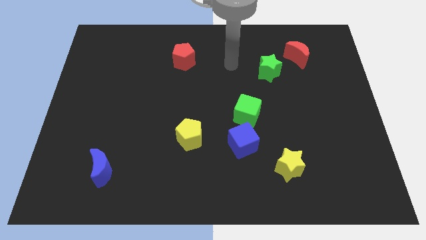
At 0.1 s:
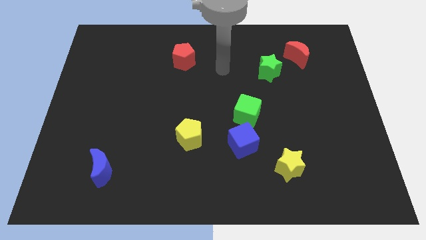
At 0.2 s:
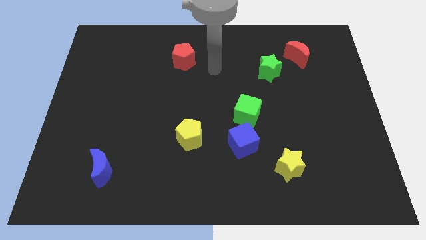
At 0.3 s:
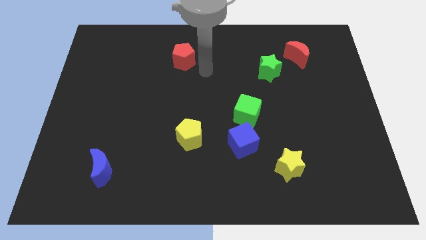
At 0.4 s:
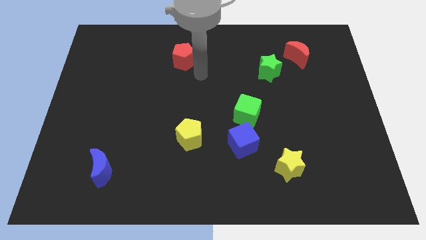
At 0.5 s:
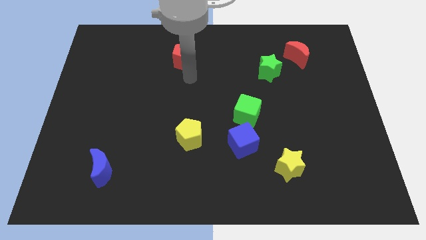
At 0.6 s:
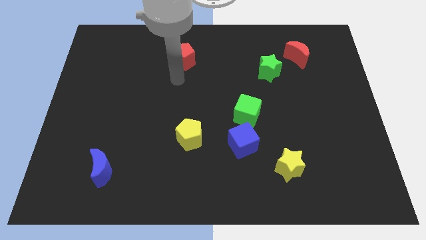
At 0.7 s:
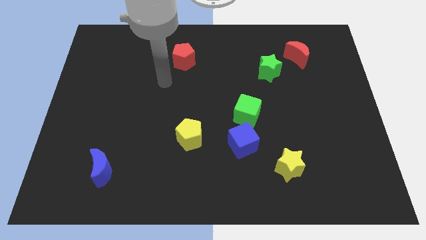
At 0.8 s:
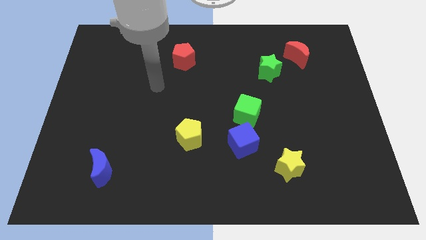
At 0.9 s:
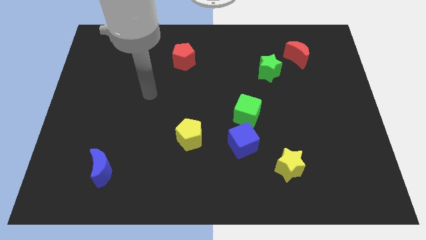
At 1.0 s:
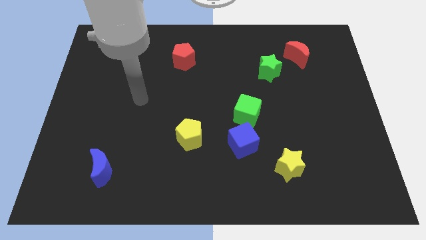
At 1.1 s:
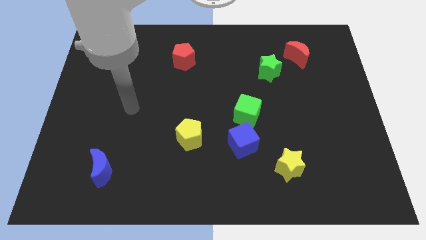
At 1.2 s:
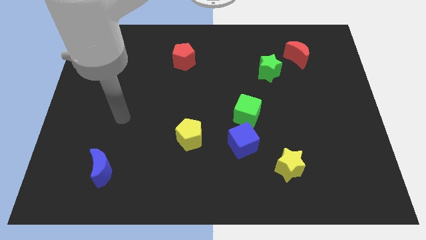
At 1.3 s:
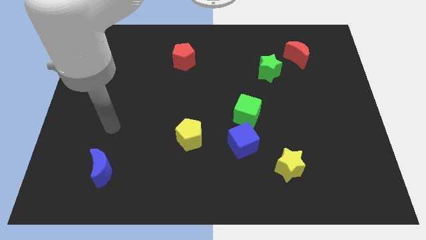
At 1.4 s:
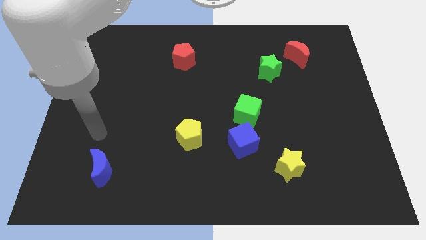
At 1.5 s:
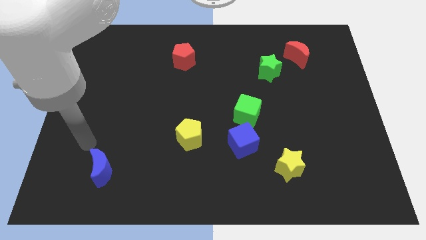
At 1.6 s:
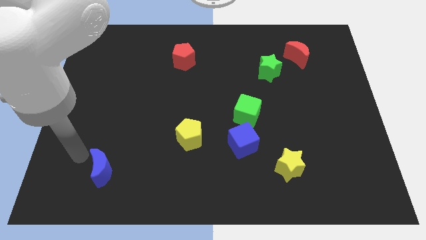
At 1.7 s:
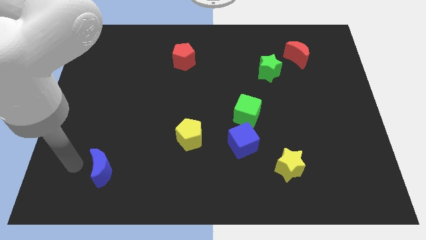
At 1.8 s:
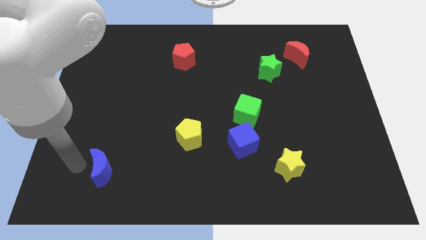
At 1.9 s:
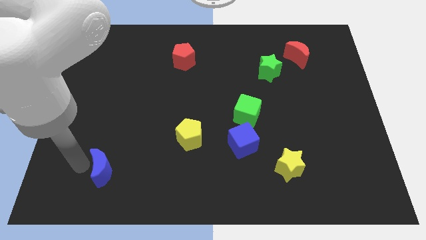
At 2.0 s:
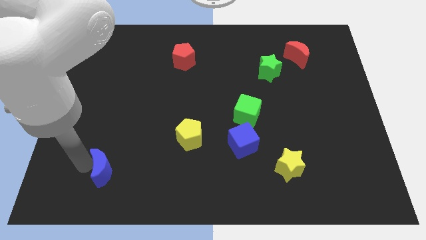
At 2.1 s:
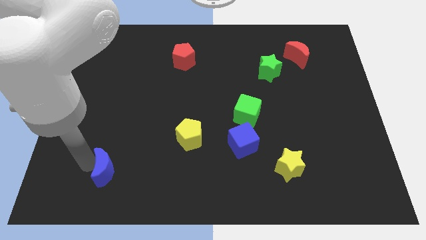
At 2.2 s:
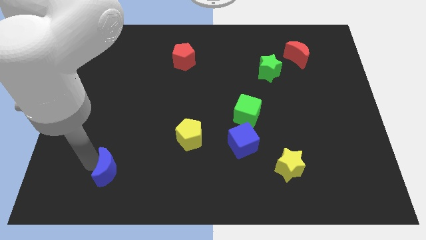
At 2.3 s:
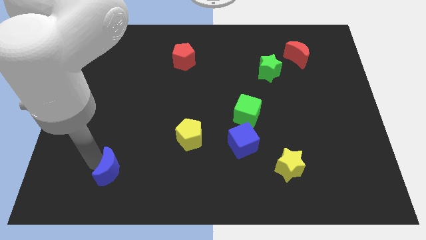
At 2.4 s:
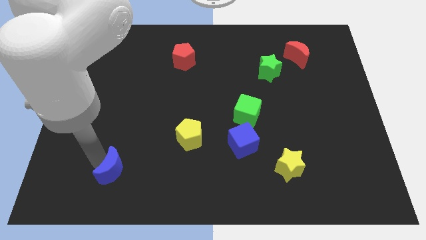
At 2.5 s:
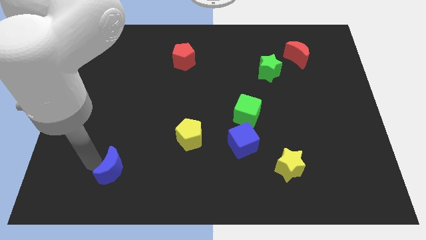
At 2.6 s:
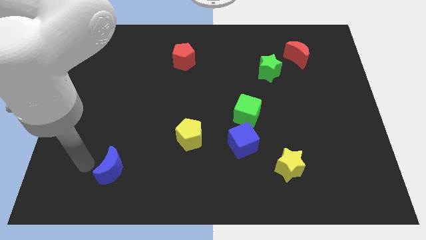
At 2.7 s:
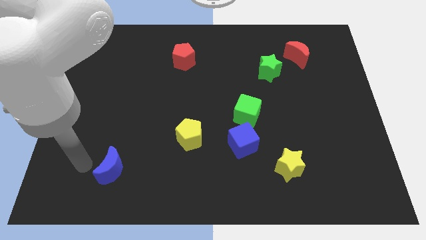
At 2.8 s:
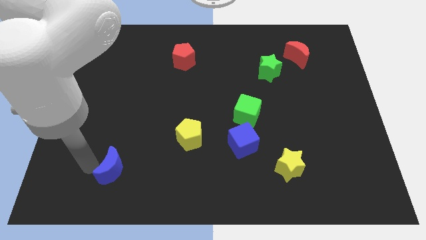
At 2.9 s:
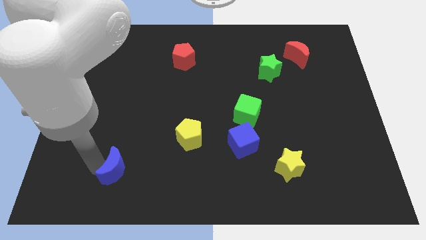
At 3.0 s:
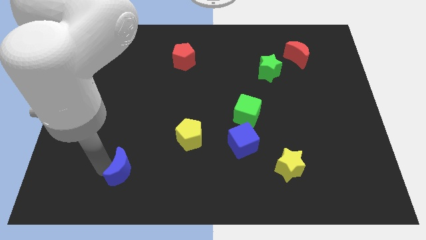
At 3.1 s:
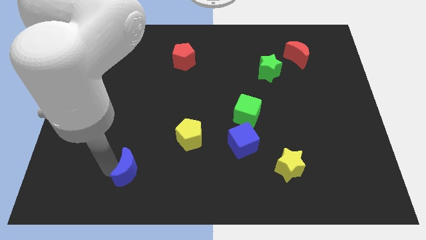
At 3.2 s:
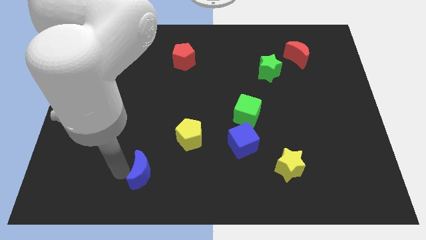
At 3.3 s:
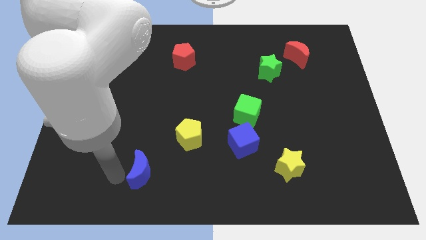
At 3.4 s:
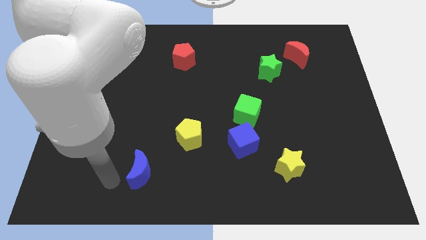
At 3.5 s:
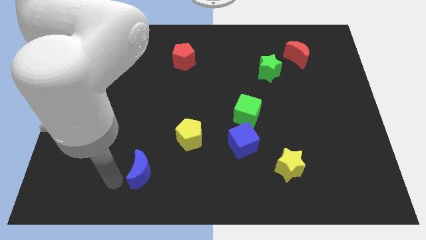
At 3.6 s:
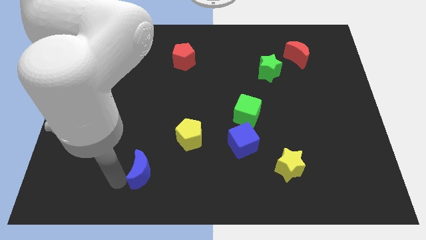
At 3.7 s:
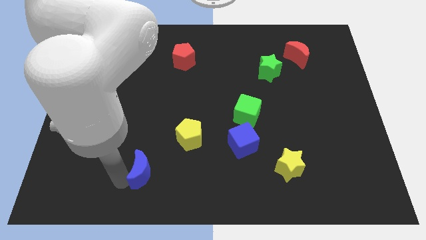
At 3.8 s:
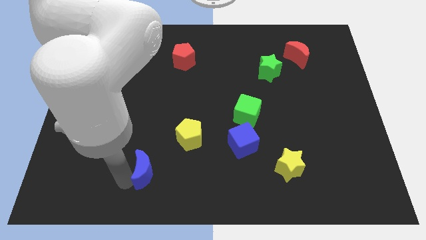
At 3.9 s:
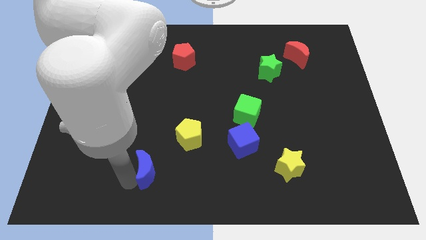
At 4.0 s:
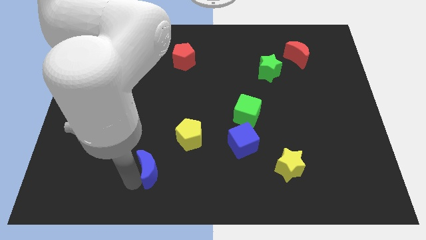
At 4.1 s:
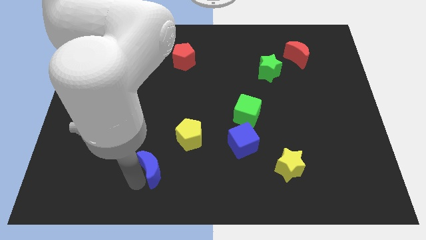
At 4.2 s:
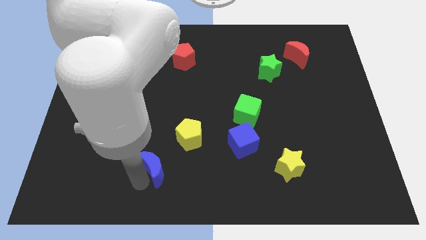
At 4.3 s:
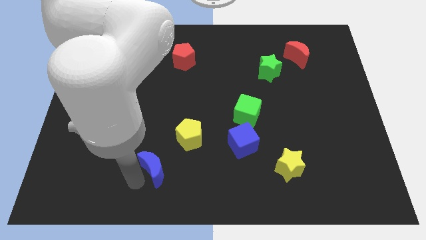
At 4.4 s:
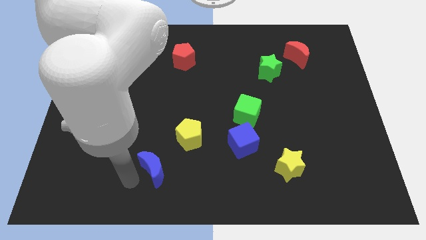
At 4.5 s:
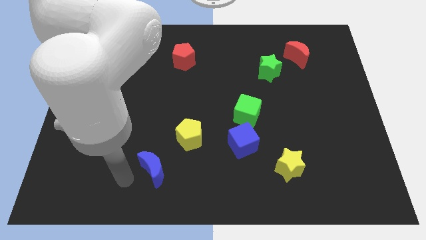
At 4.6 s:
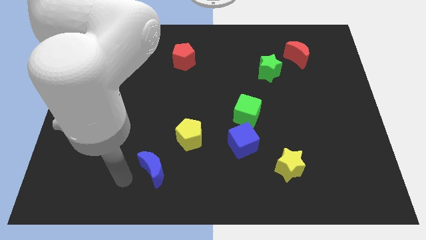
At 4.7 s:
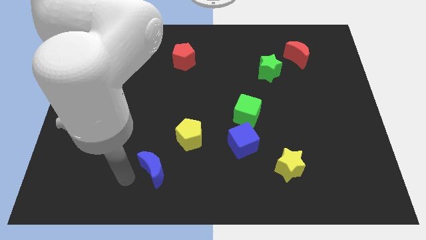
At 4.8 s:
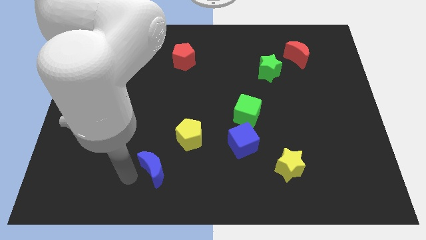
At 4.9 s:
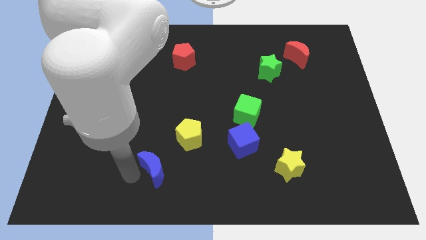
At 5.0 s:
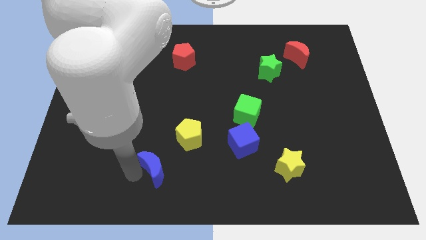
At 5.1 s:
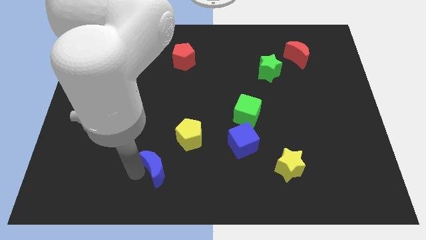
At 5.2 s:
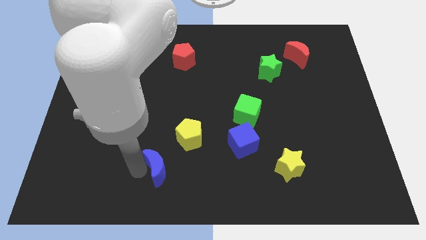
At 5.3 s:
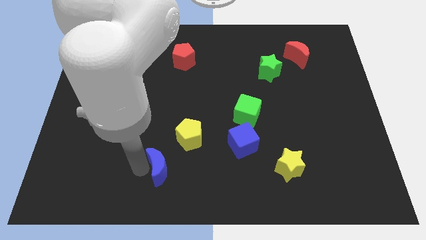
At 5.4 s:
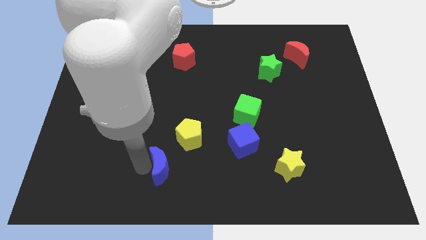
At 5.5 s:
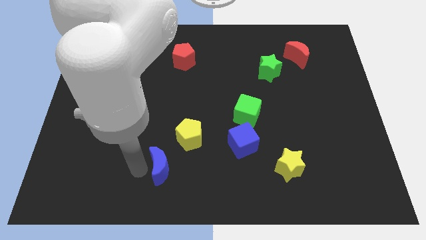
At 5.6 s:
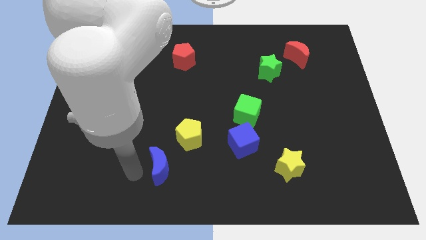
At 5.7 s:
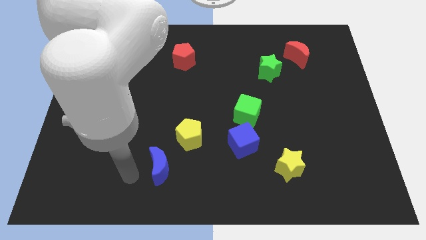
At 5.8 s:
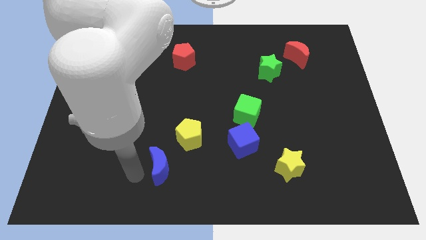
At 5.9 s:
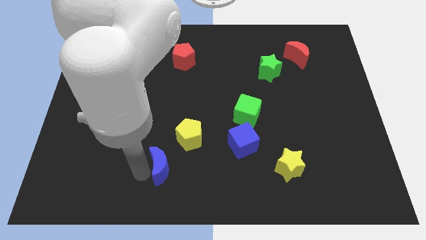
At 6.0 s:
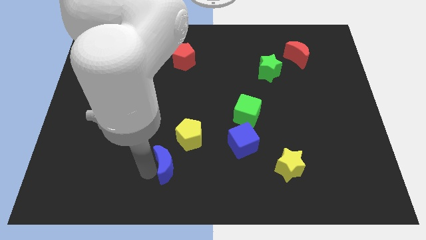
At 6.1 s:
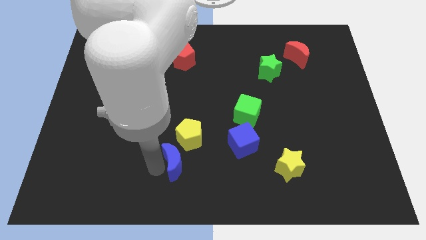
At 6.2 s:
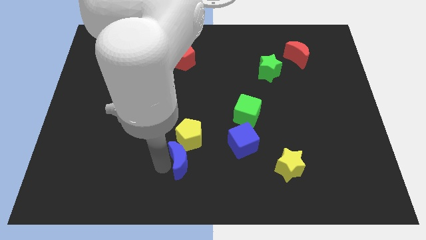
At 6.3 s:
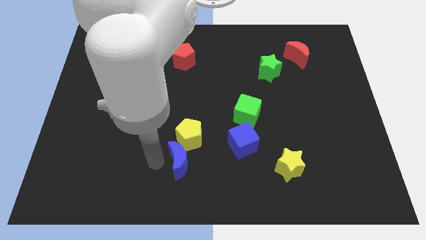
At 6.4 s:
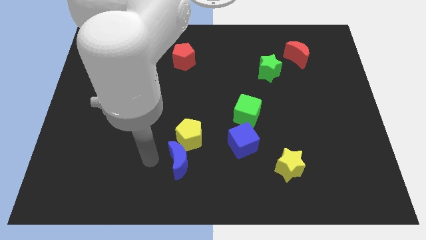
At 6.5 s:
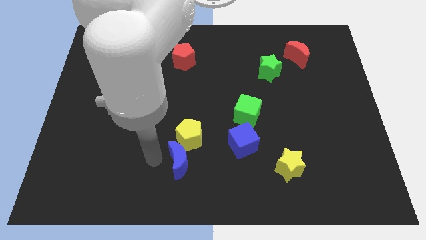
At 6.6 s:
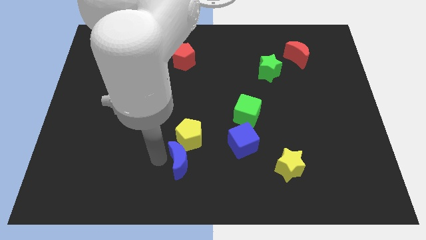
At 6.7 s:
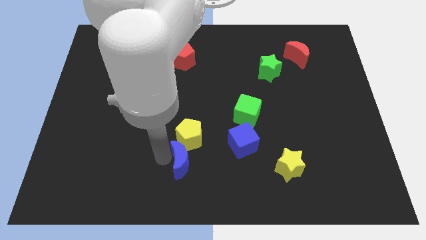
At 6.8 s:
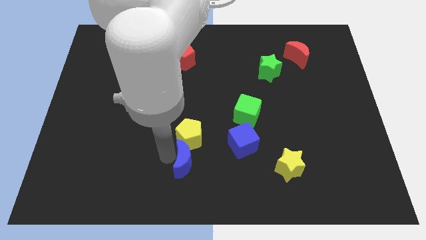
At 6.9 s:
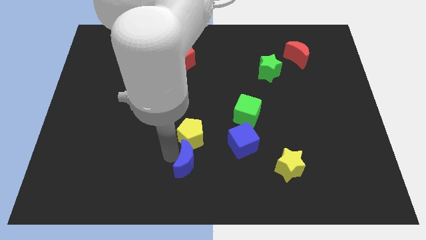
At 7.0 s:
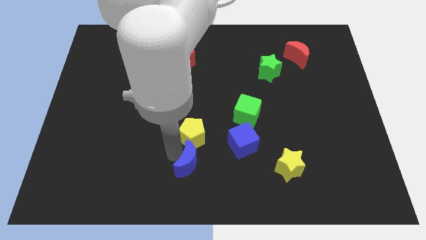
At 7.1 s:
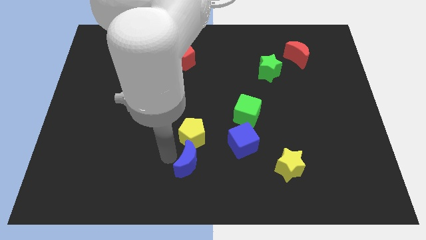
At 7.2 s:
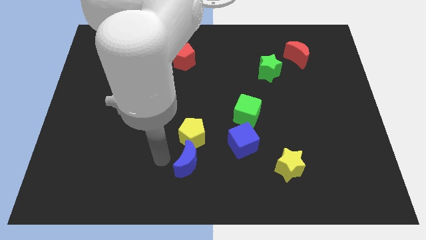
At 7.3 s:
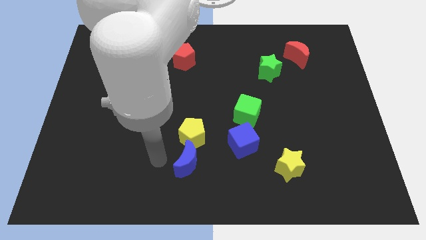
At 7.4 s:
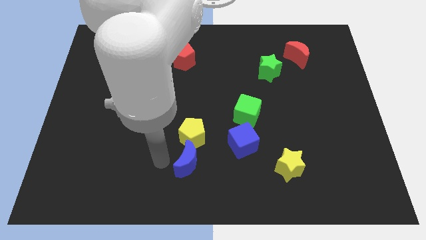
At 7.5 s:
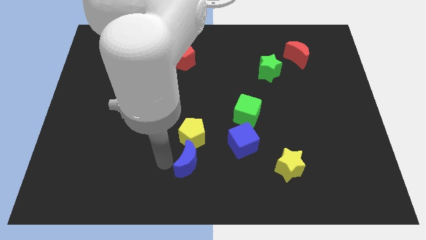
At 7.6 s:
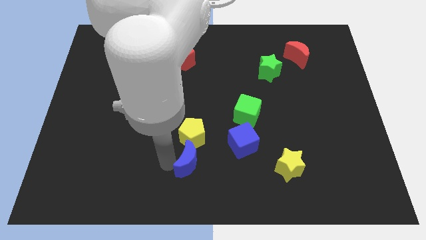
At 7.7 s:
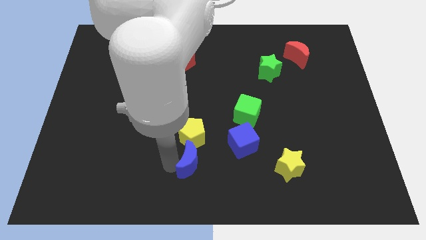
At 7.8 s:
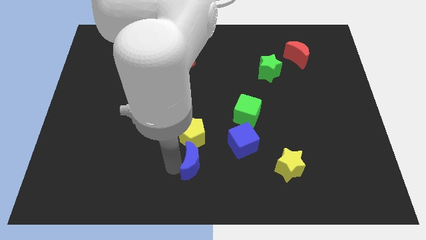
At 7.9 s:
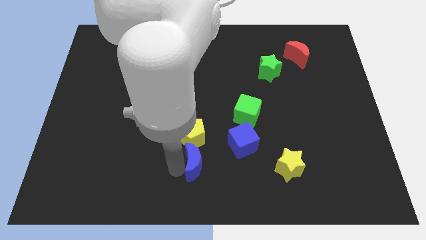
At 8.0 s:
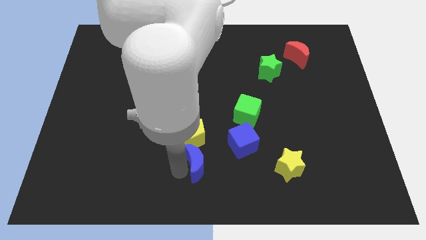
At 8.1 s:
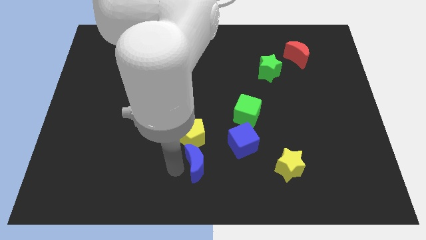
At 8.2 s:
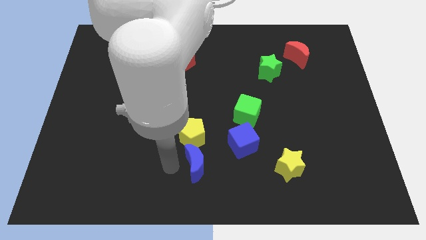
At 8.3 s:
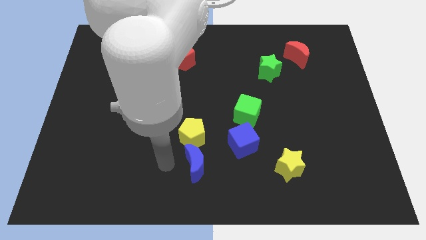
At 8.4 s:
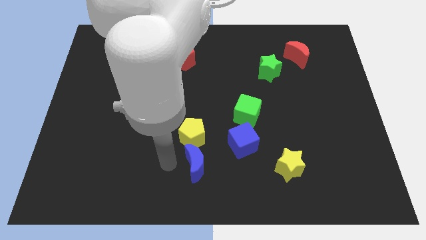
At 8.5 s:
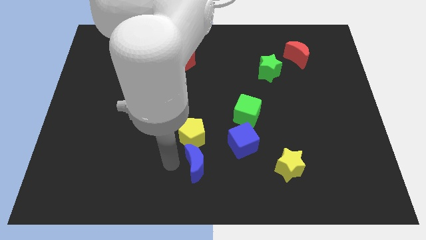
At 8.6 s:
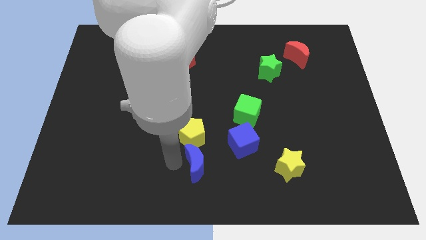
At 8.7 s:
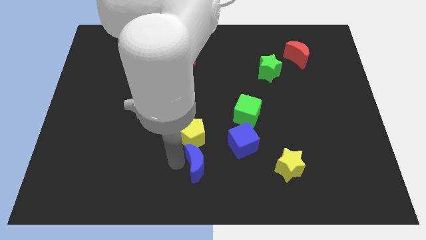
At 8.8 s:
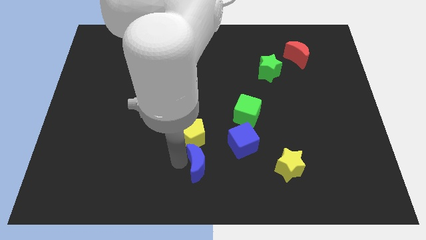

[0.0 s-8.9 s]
slide the blue moon to the right
